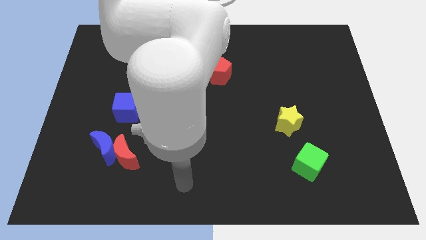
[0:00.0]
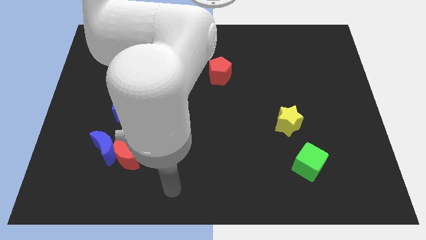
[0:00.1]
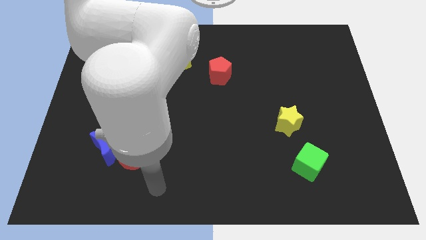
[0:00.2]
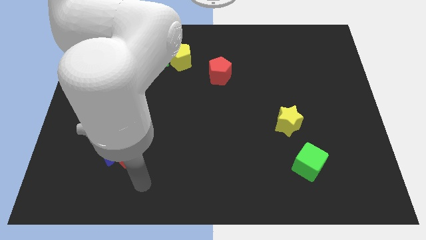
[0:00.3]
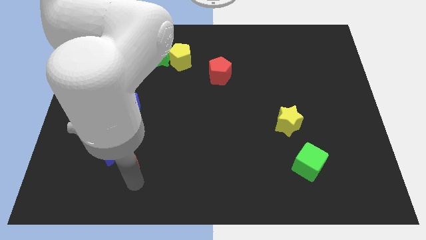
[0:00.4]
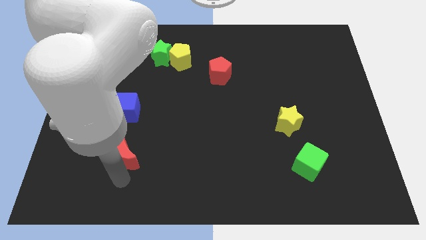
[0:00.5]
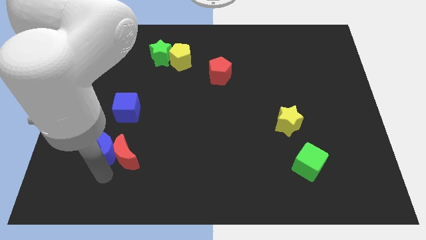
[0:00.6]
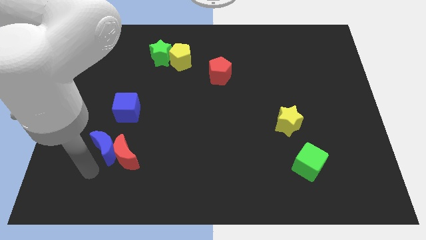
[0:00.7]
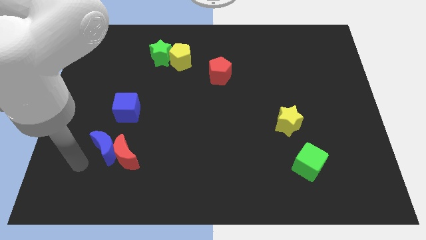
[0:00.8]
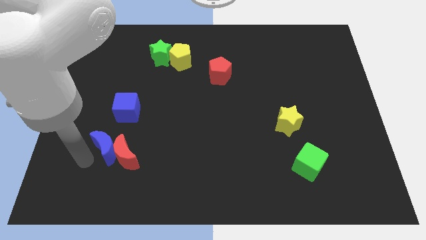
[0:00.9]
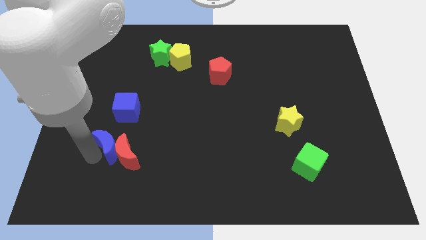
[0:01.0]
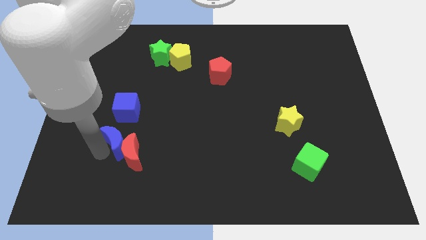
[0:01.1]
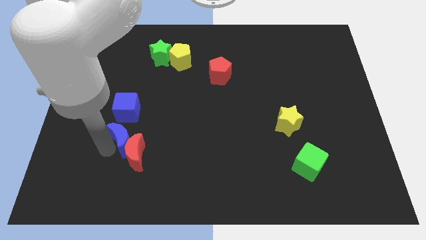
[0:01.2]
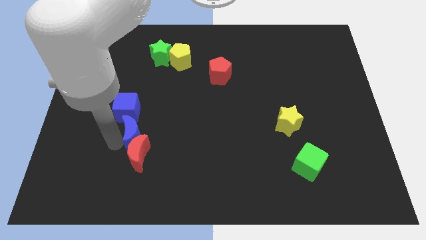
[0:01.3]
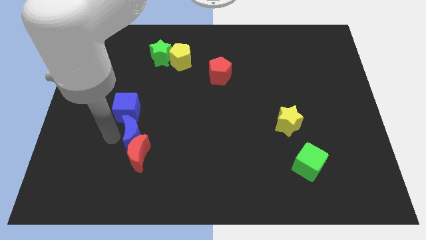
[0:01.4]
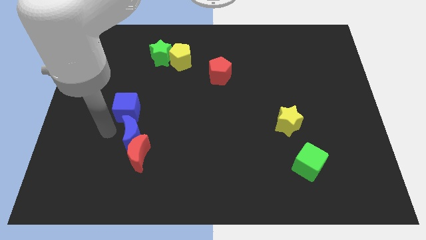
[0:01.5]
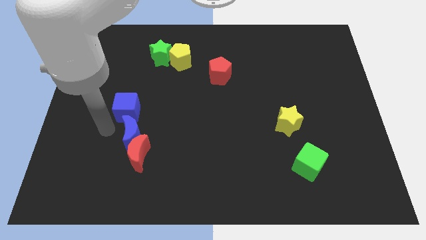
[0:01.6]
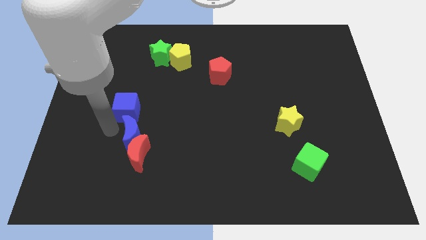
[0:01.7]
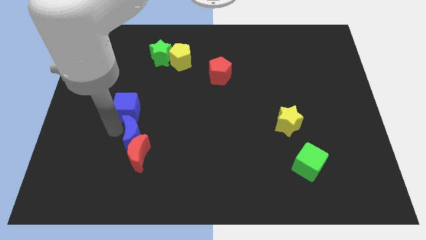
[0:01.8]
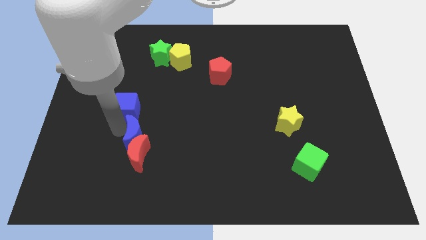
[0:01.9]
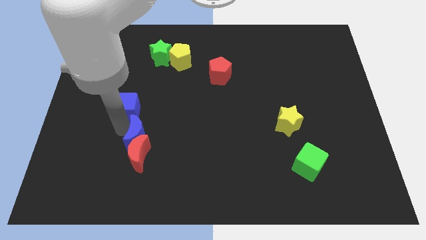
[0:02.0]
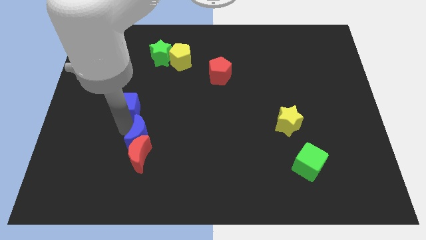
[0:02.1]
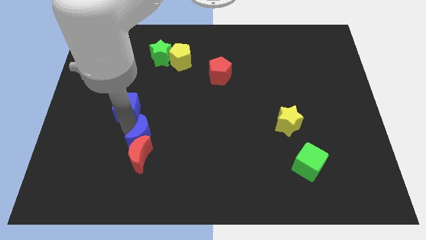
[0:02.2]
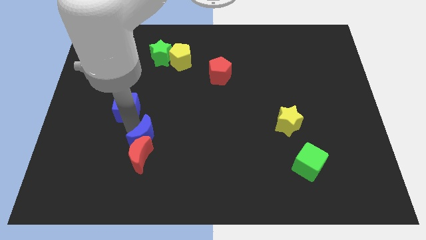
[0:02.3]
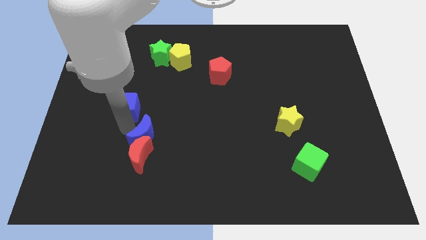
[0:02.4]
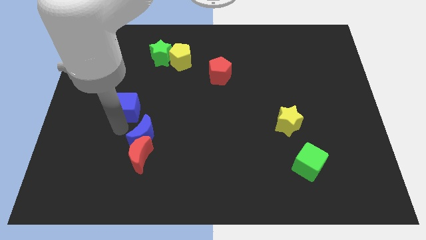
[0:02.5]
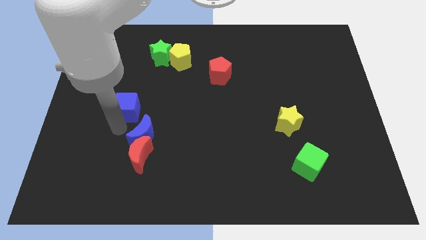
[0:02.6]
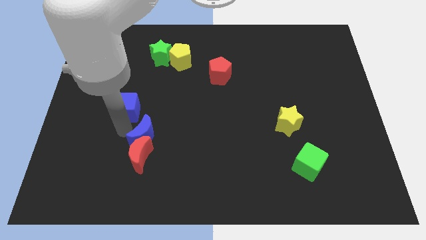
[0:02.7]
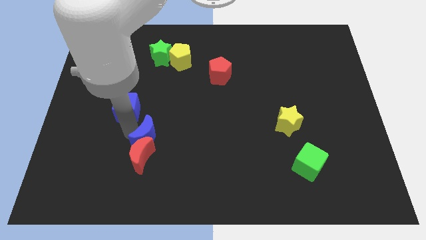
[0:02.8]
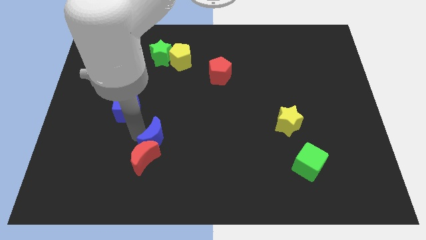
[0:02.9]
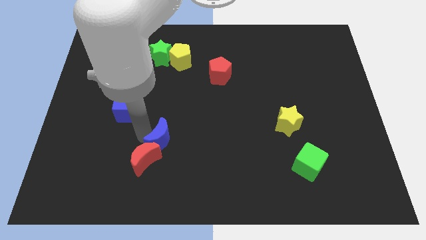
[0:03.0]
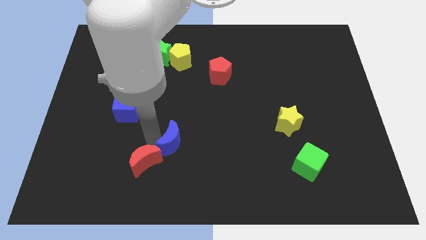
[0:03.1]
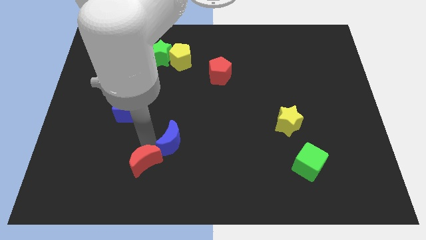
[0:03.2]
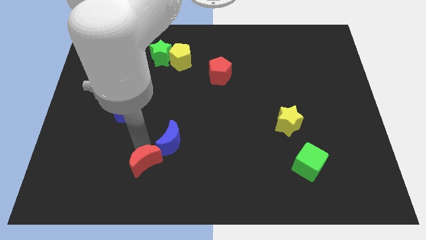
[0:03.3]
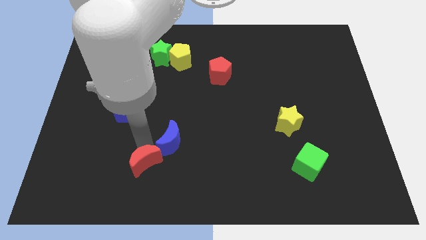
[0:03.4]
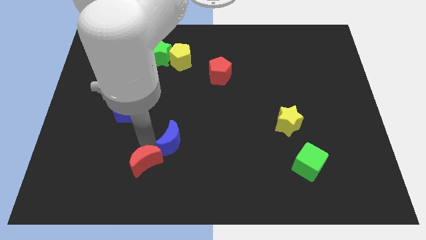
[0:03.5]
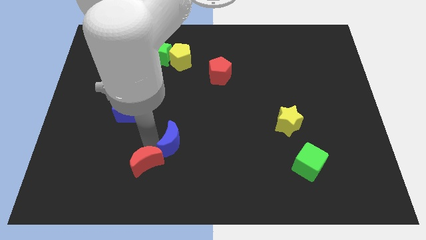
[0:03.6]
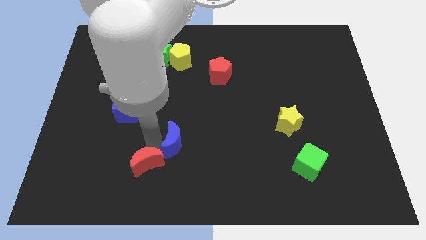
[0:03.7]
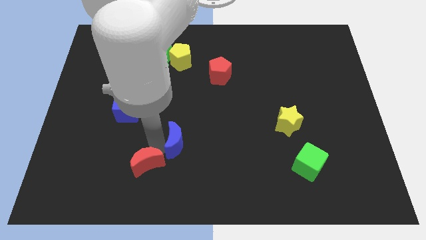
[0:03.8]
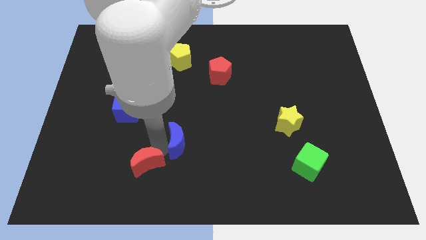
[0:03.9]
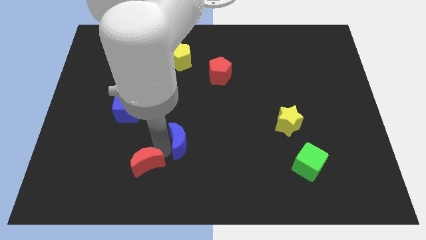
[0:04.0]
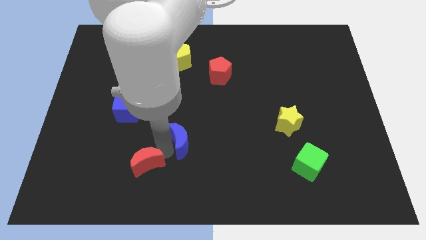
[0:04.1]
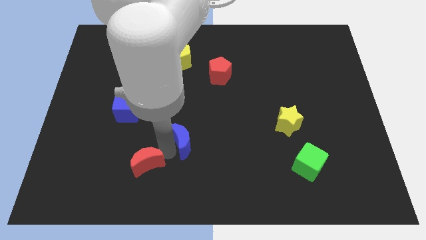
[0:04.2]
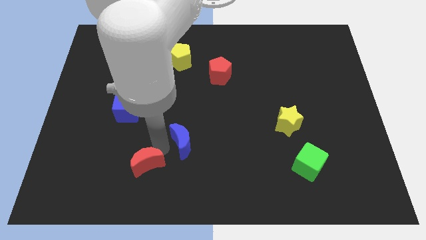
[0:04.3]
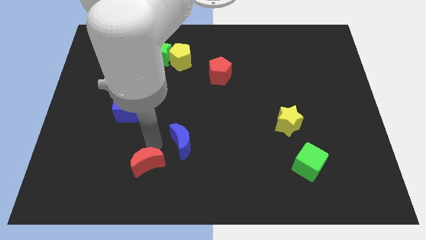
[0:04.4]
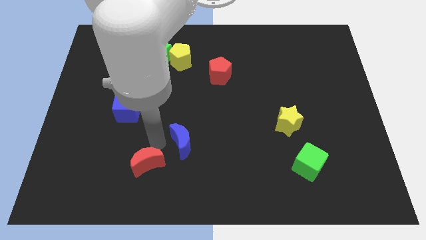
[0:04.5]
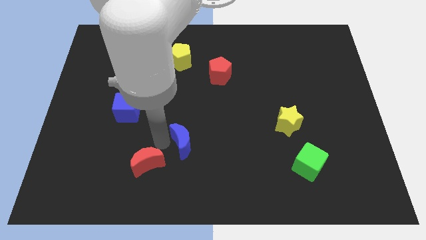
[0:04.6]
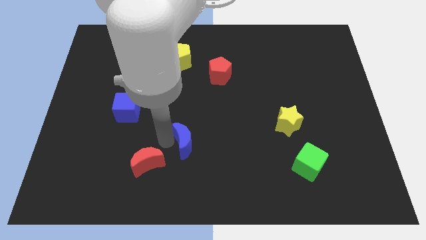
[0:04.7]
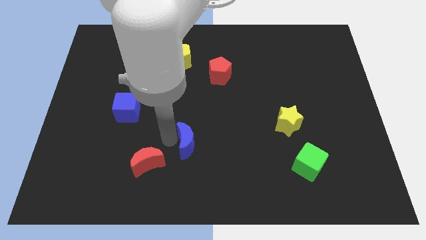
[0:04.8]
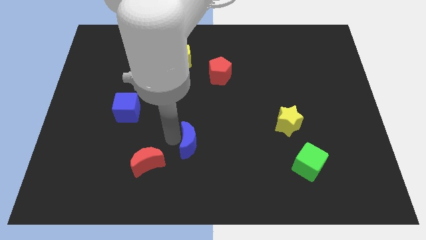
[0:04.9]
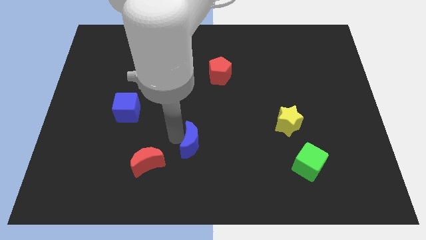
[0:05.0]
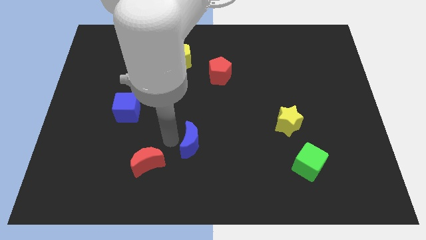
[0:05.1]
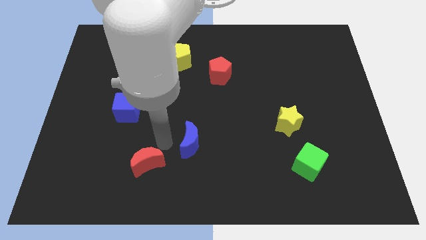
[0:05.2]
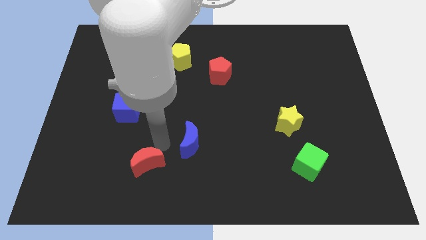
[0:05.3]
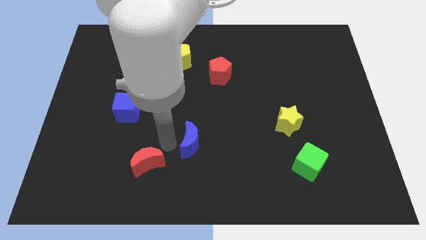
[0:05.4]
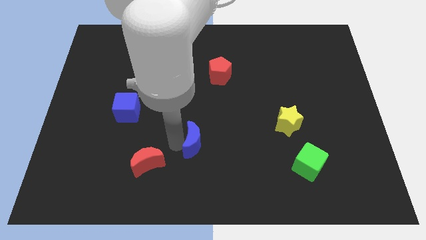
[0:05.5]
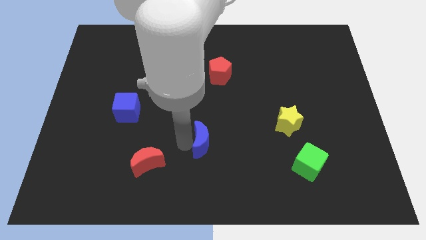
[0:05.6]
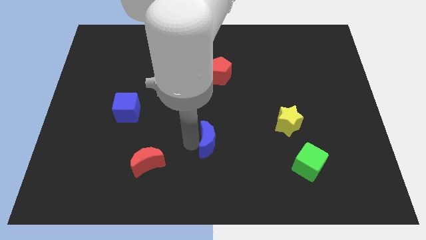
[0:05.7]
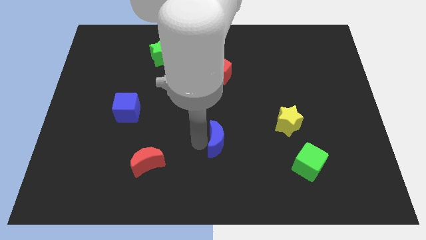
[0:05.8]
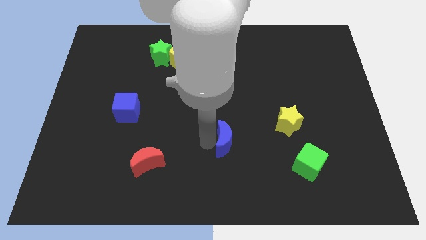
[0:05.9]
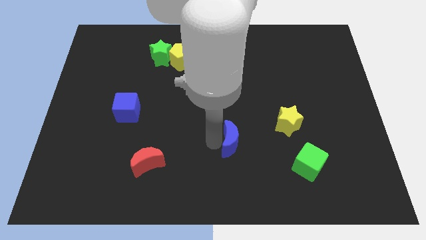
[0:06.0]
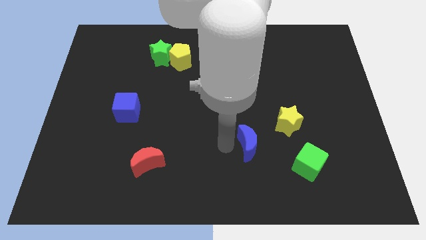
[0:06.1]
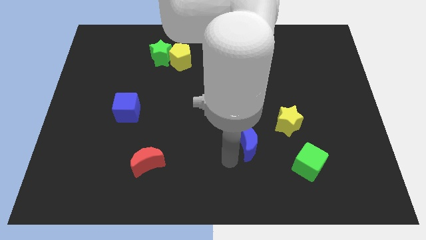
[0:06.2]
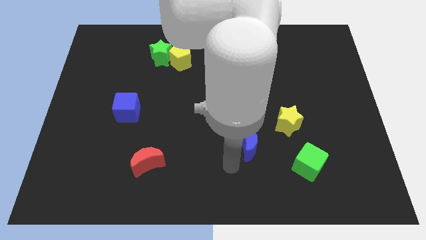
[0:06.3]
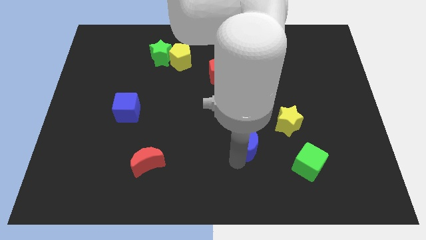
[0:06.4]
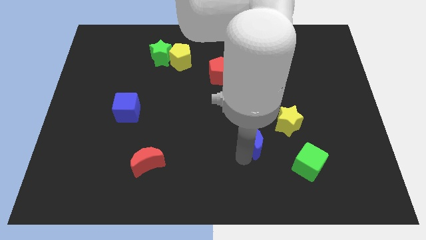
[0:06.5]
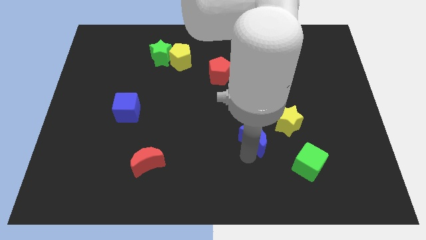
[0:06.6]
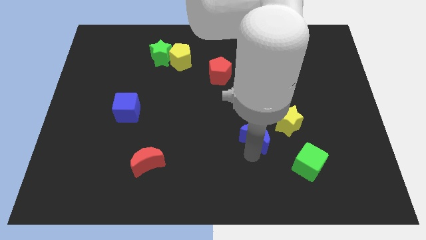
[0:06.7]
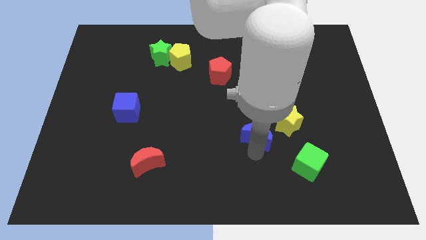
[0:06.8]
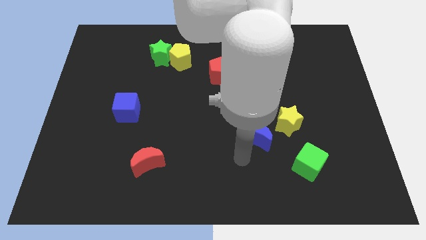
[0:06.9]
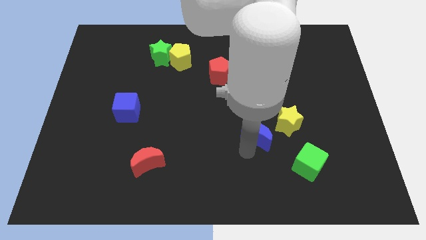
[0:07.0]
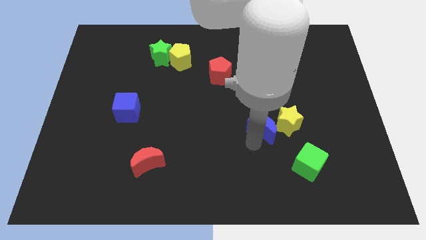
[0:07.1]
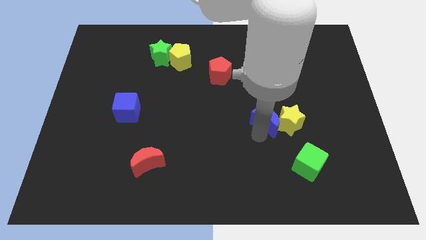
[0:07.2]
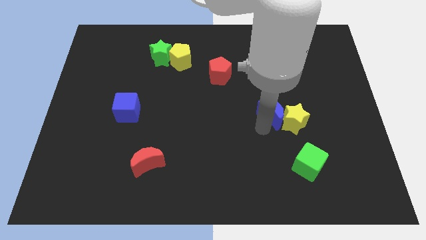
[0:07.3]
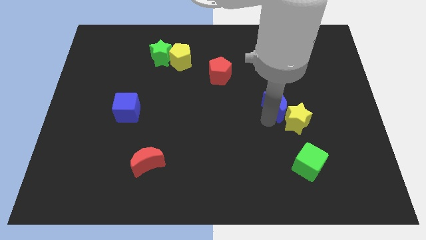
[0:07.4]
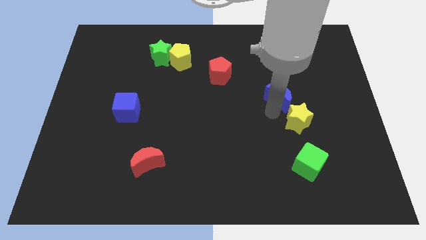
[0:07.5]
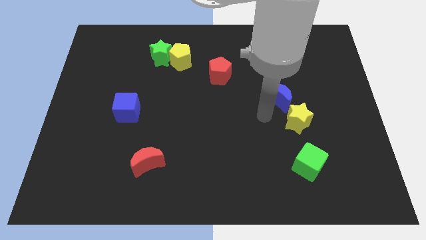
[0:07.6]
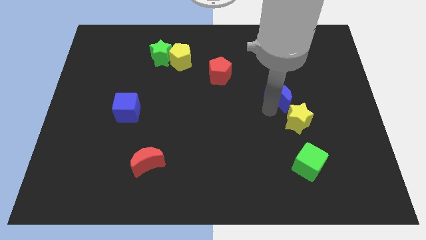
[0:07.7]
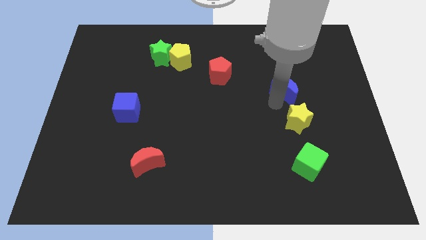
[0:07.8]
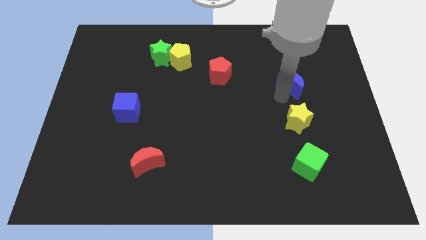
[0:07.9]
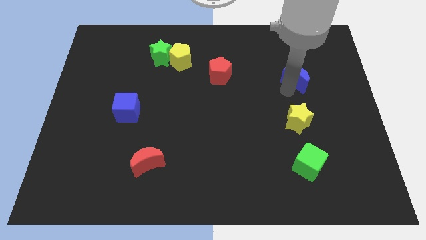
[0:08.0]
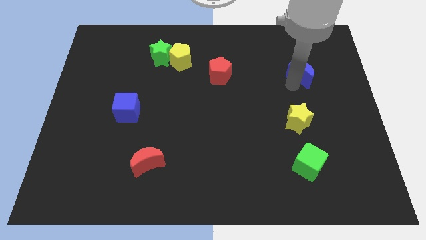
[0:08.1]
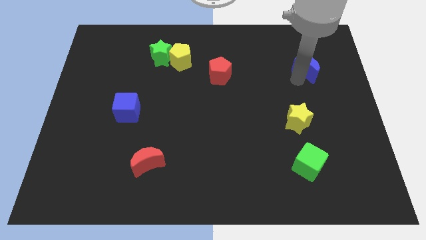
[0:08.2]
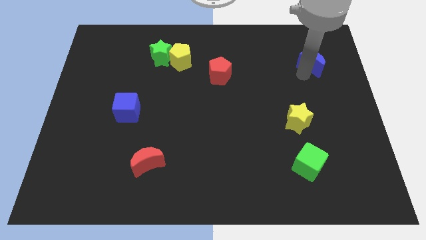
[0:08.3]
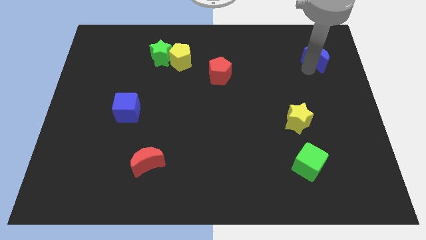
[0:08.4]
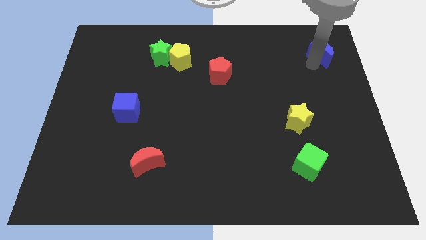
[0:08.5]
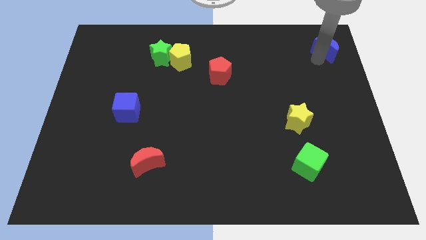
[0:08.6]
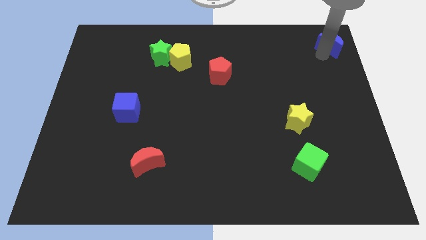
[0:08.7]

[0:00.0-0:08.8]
move the blue moon to the upper right corner
